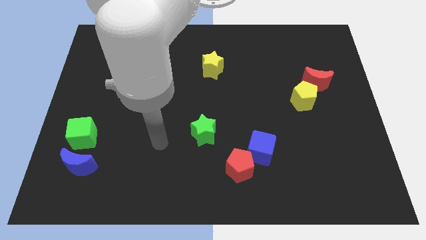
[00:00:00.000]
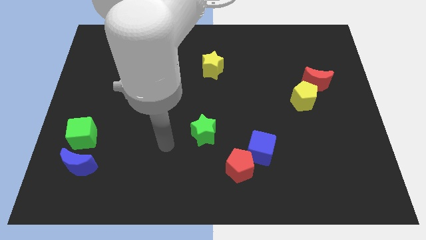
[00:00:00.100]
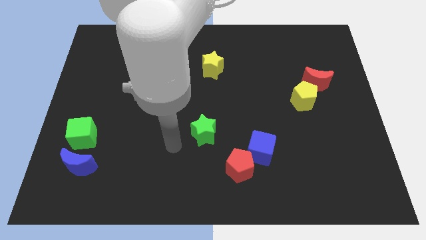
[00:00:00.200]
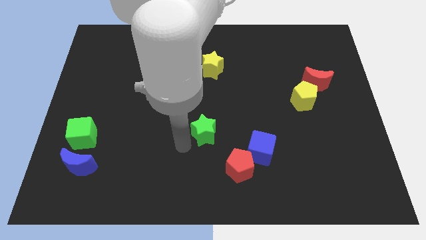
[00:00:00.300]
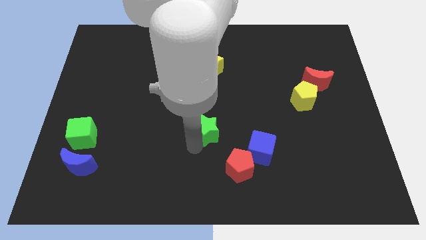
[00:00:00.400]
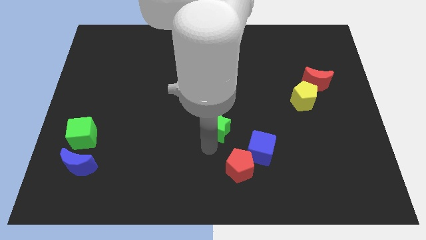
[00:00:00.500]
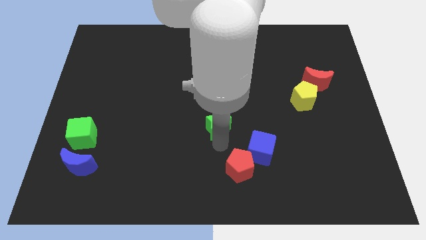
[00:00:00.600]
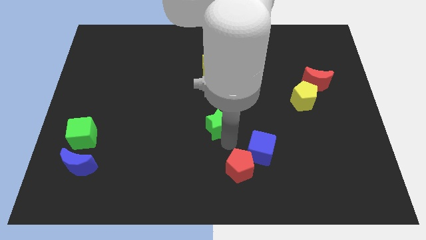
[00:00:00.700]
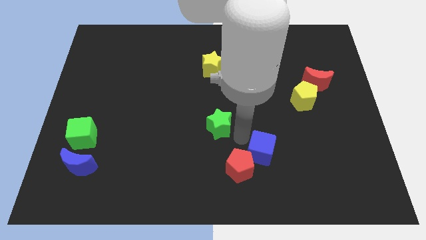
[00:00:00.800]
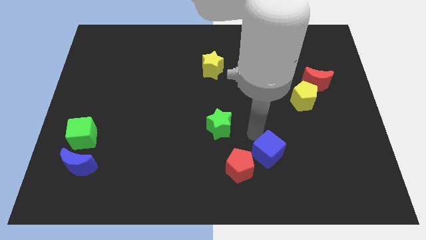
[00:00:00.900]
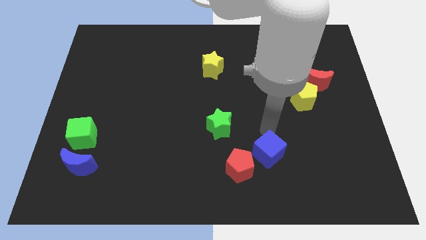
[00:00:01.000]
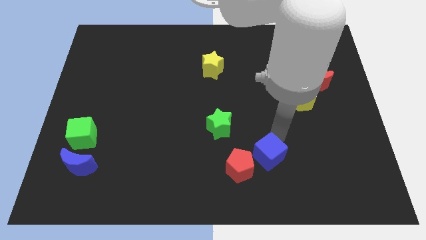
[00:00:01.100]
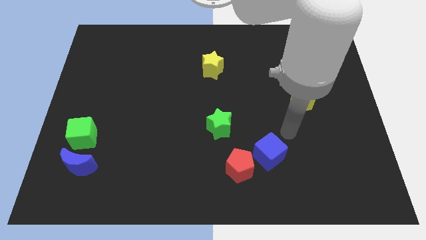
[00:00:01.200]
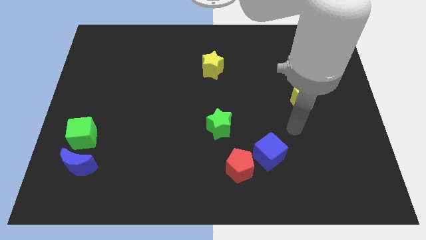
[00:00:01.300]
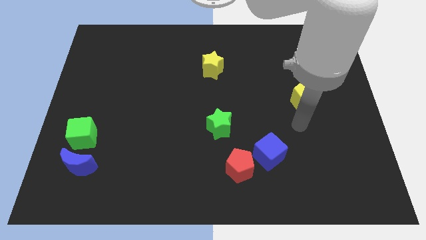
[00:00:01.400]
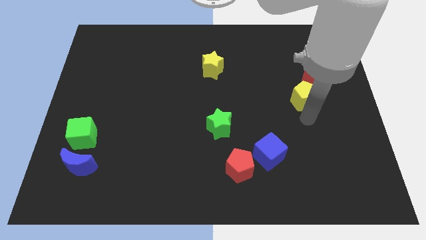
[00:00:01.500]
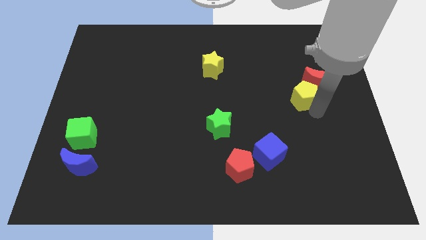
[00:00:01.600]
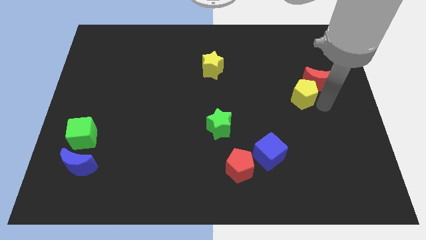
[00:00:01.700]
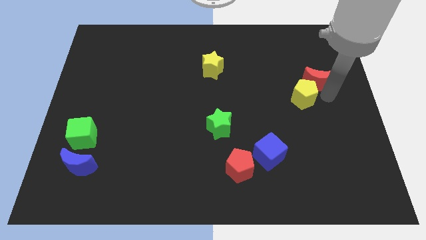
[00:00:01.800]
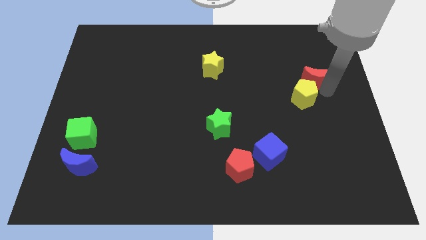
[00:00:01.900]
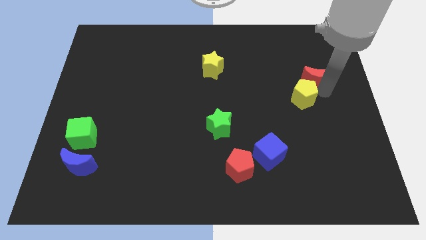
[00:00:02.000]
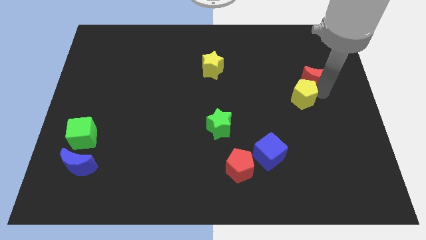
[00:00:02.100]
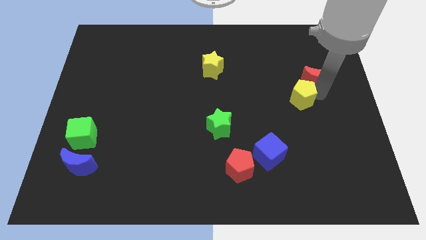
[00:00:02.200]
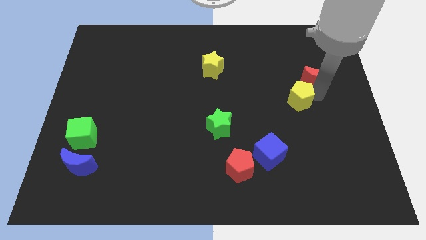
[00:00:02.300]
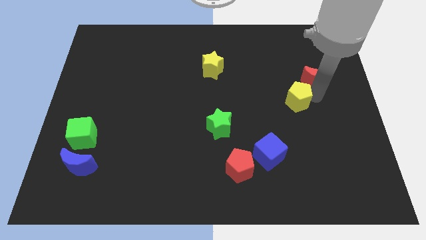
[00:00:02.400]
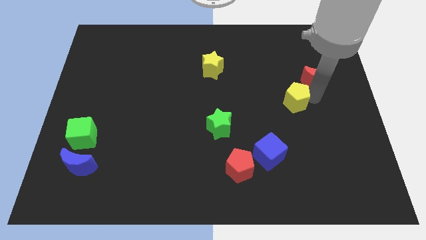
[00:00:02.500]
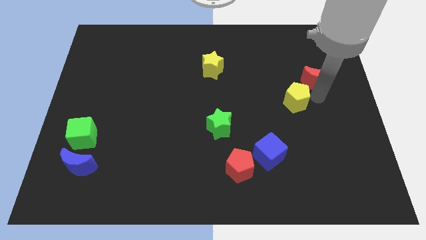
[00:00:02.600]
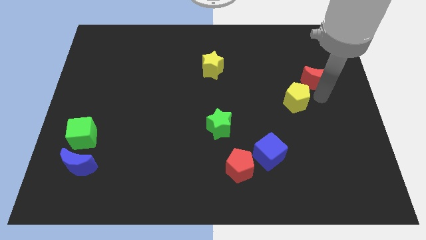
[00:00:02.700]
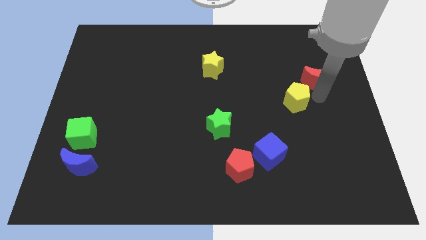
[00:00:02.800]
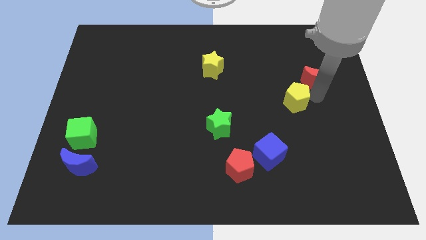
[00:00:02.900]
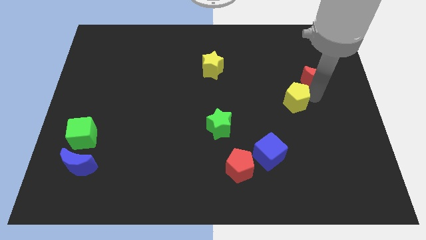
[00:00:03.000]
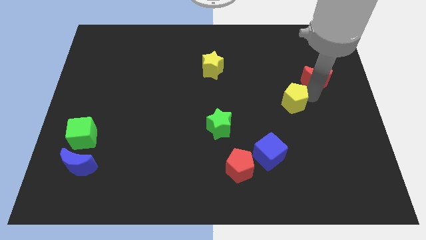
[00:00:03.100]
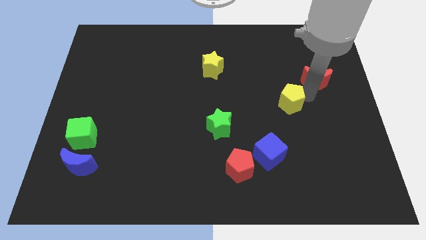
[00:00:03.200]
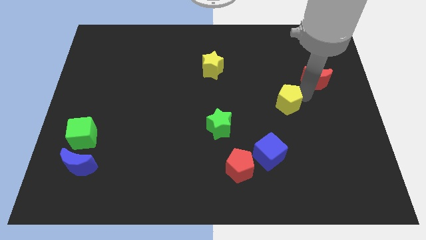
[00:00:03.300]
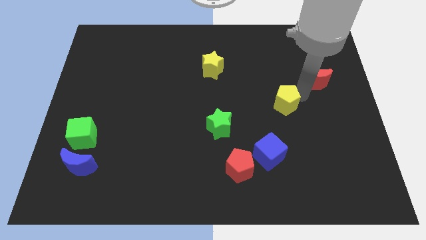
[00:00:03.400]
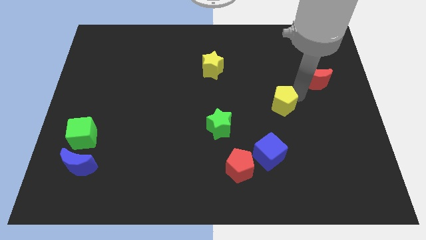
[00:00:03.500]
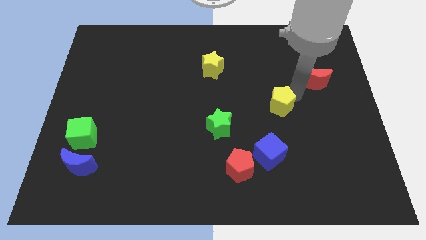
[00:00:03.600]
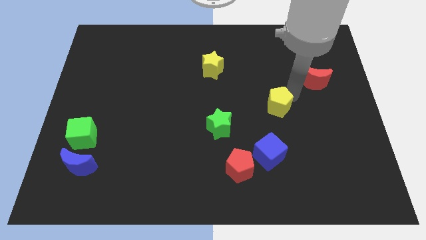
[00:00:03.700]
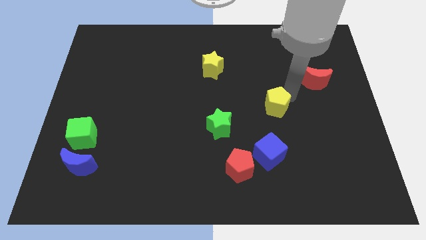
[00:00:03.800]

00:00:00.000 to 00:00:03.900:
push the yellow pentagon left a bit

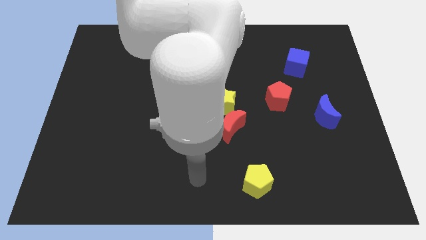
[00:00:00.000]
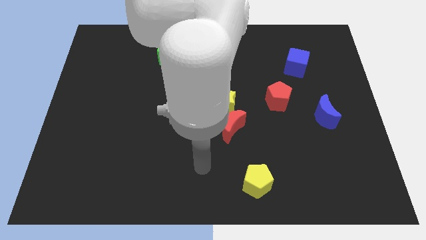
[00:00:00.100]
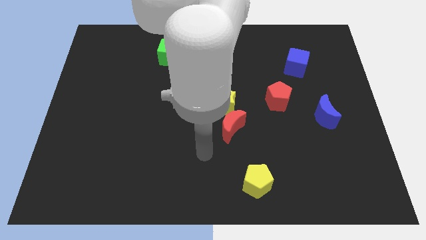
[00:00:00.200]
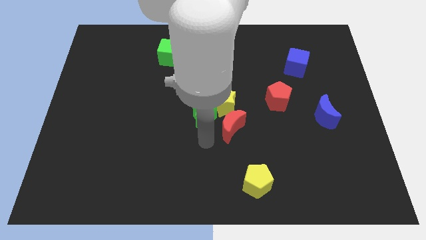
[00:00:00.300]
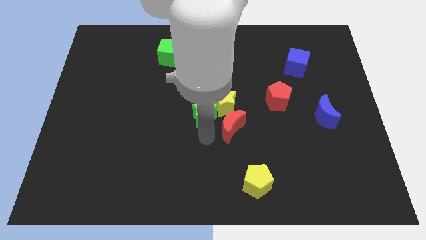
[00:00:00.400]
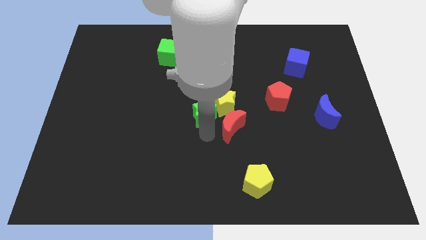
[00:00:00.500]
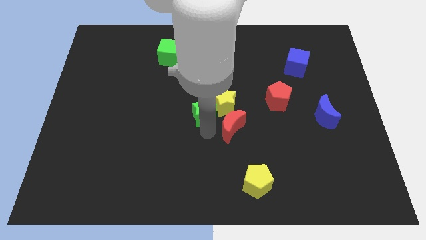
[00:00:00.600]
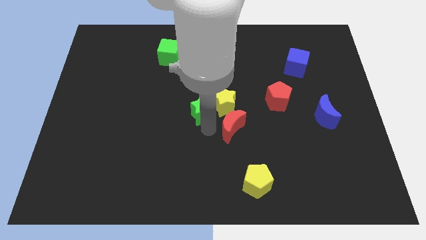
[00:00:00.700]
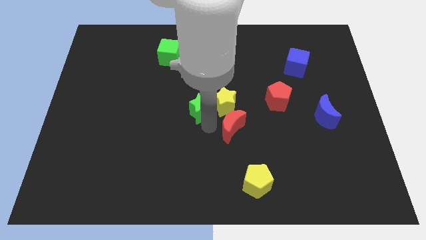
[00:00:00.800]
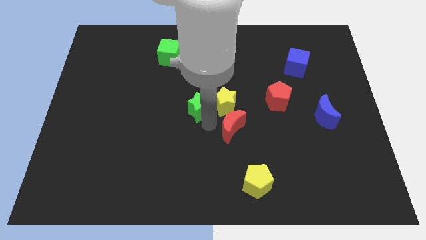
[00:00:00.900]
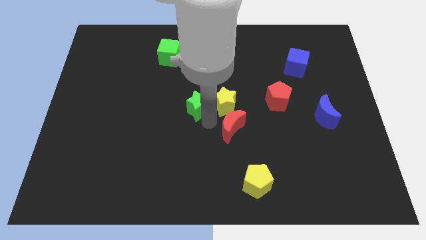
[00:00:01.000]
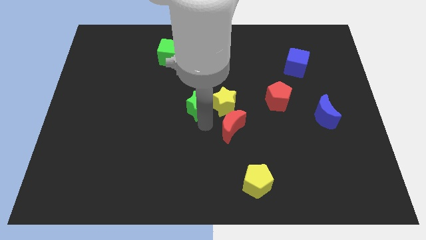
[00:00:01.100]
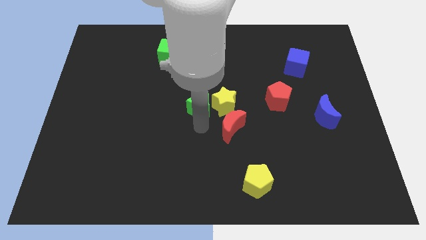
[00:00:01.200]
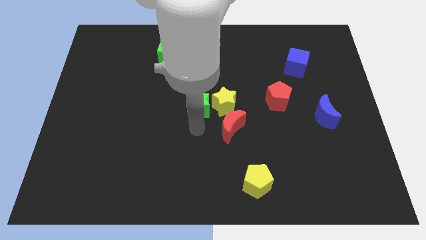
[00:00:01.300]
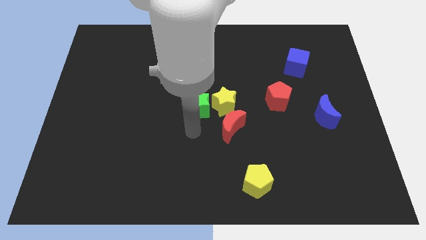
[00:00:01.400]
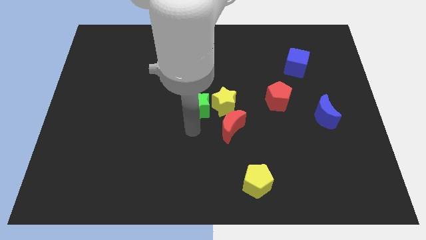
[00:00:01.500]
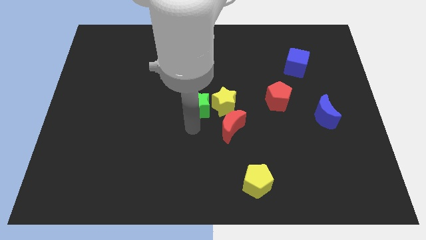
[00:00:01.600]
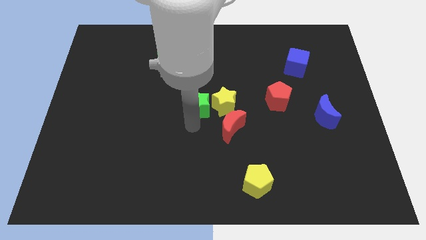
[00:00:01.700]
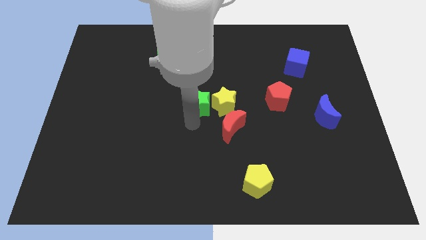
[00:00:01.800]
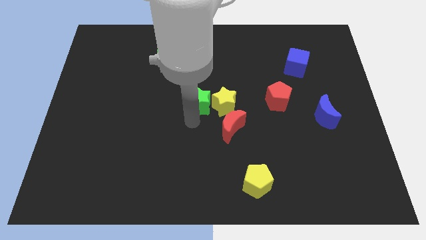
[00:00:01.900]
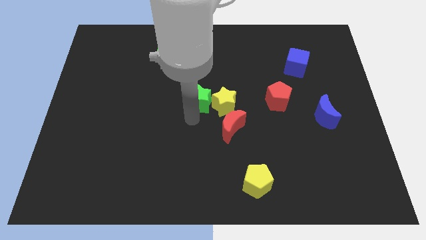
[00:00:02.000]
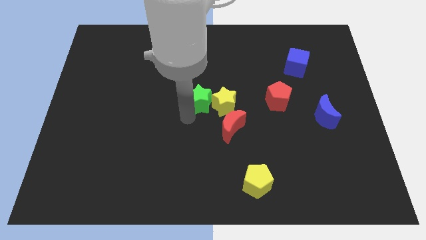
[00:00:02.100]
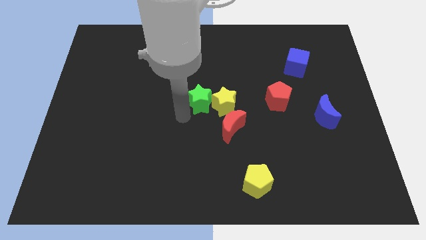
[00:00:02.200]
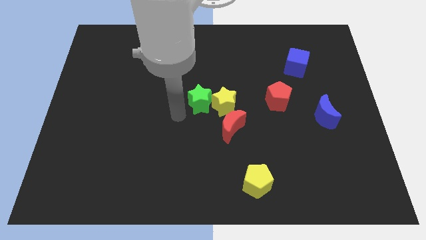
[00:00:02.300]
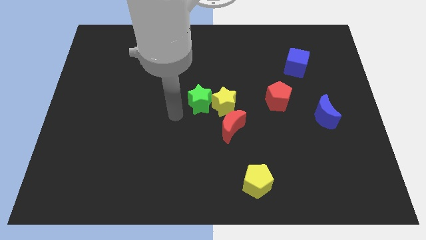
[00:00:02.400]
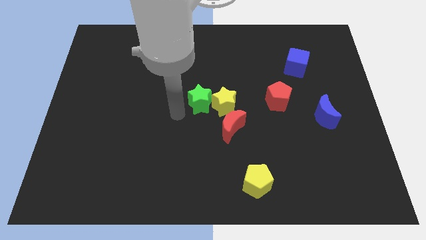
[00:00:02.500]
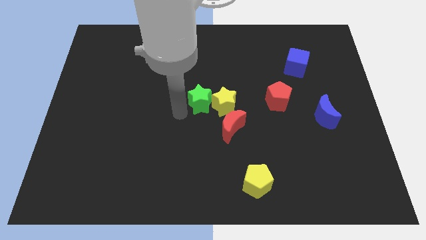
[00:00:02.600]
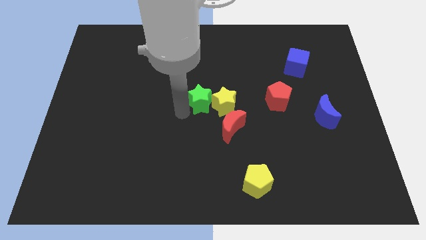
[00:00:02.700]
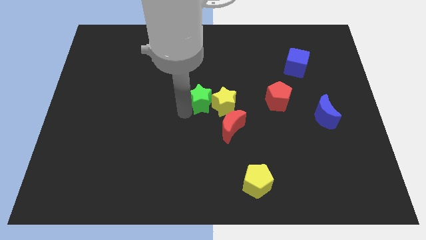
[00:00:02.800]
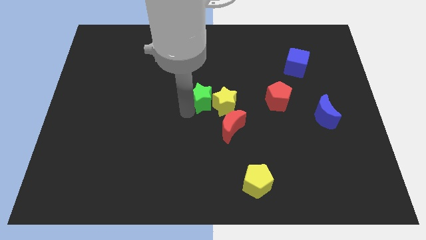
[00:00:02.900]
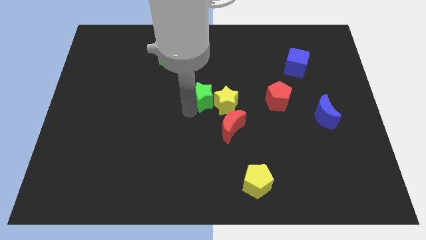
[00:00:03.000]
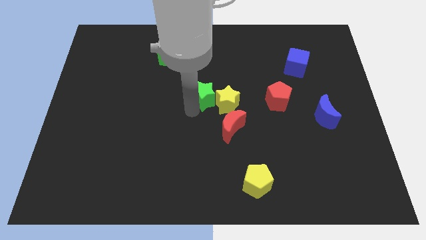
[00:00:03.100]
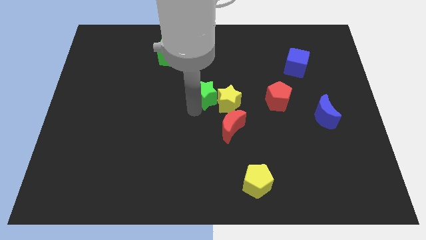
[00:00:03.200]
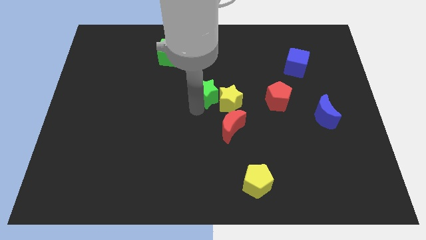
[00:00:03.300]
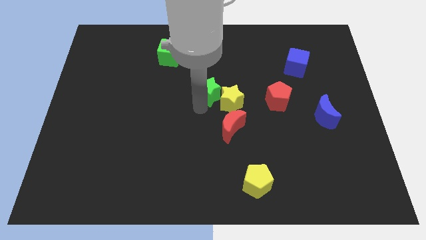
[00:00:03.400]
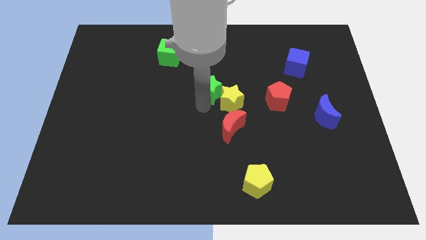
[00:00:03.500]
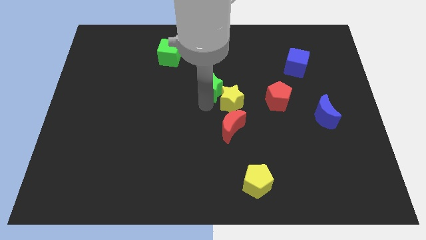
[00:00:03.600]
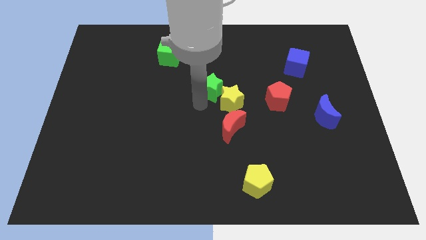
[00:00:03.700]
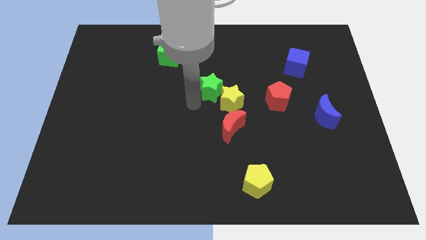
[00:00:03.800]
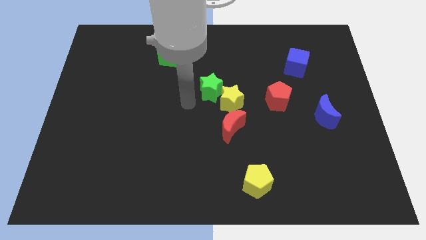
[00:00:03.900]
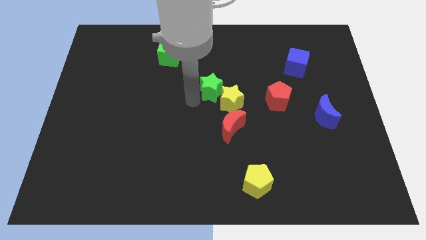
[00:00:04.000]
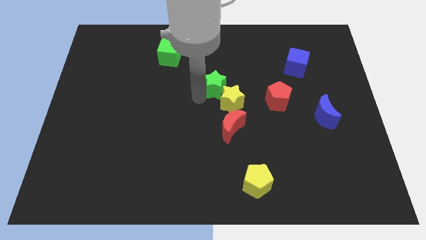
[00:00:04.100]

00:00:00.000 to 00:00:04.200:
move the green star a little bit up and then right

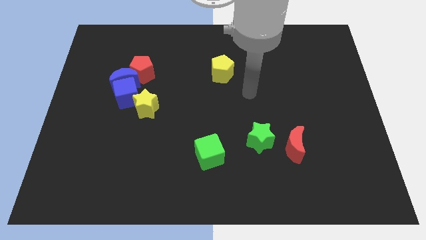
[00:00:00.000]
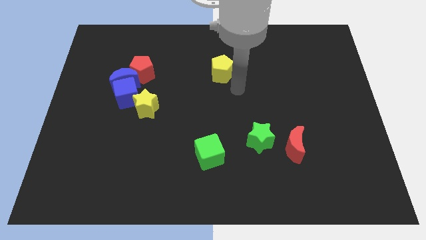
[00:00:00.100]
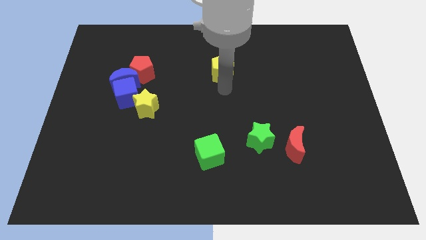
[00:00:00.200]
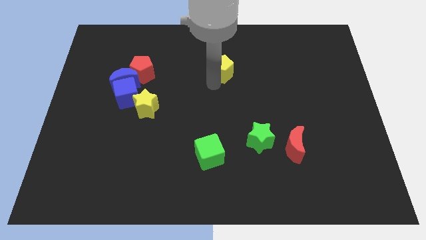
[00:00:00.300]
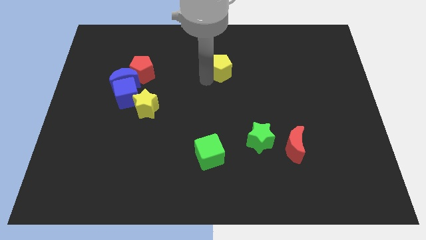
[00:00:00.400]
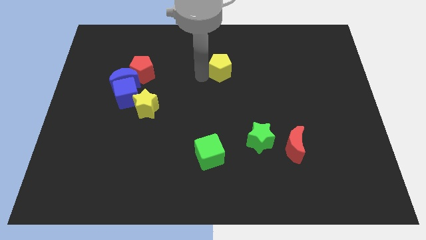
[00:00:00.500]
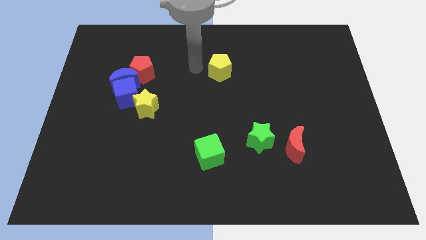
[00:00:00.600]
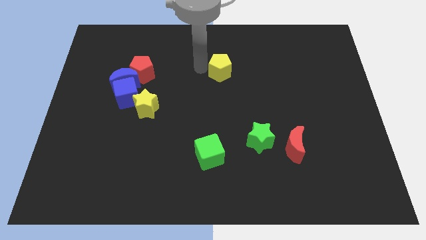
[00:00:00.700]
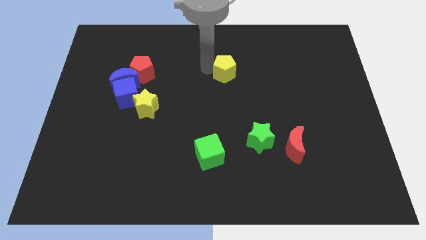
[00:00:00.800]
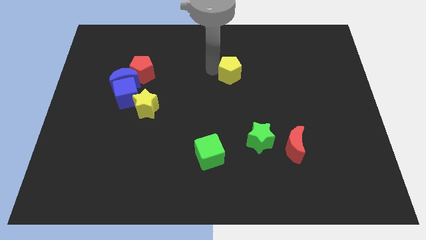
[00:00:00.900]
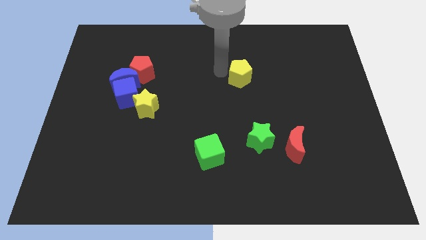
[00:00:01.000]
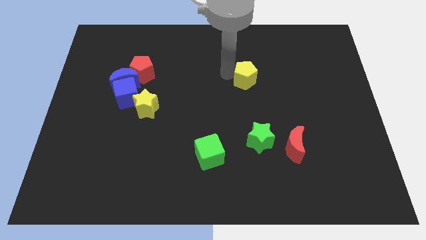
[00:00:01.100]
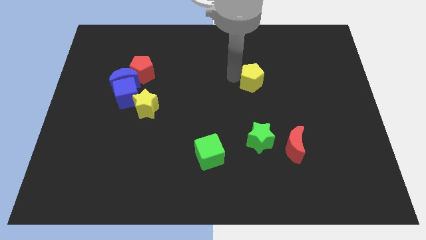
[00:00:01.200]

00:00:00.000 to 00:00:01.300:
move the yellow pentagon slightly right
